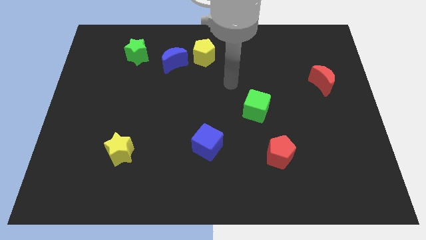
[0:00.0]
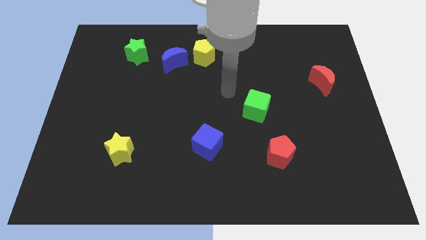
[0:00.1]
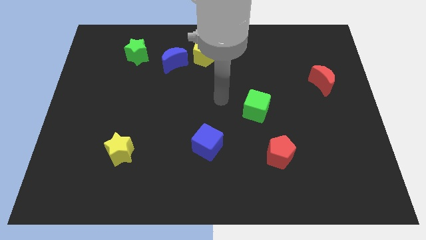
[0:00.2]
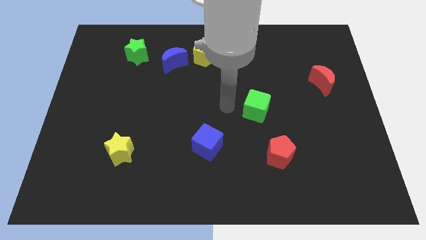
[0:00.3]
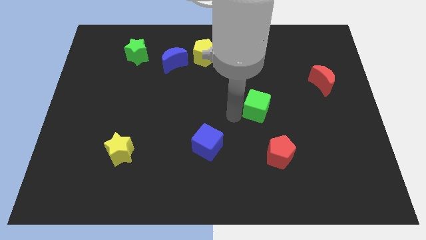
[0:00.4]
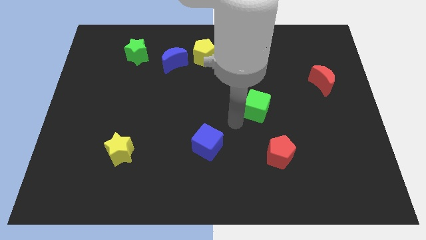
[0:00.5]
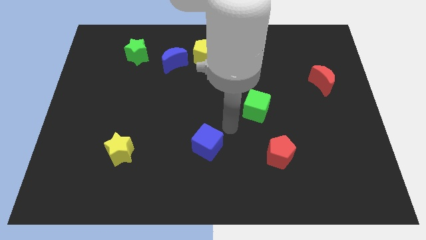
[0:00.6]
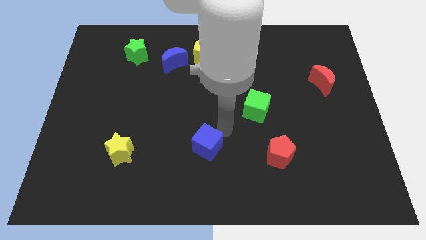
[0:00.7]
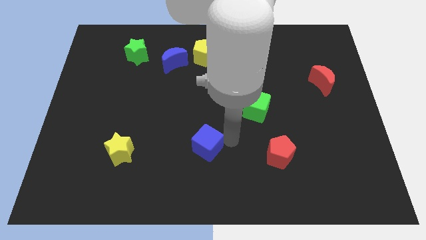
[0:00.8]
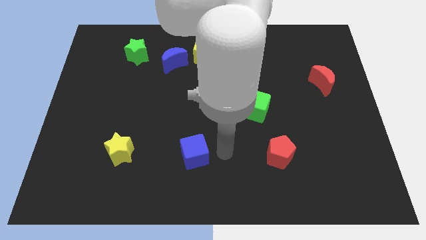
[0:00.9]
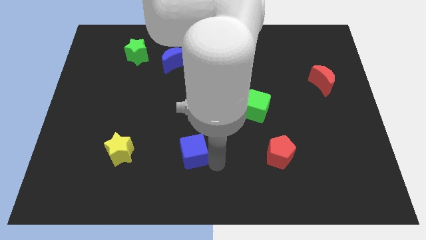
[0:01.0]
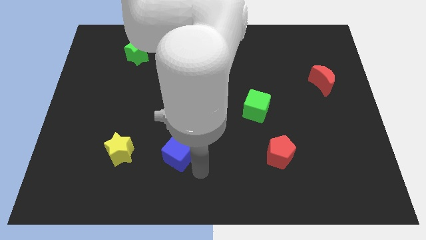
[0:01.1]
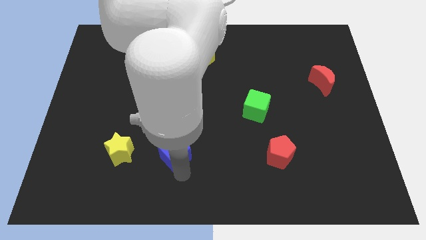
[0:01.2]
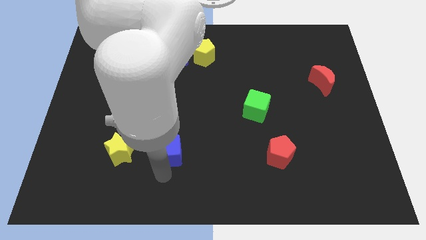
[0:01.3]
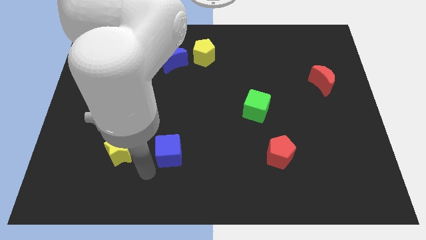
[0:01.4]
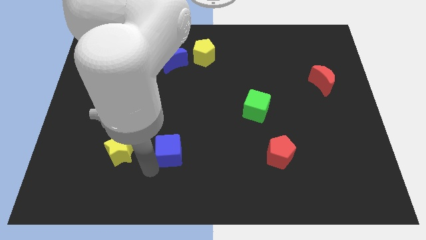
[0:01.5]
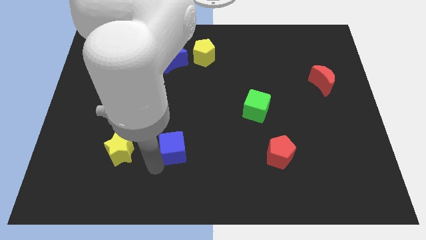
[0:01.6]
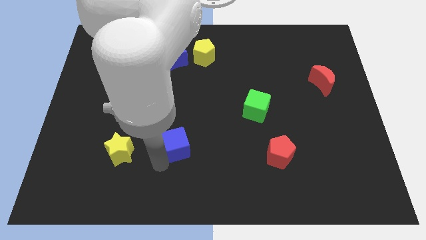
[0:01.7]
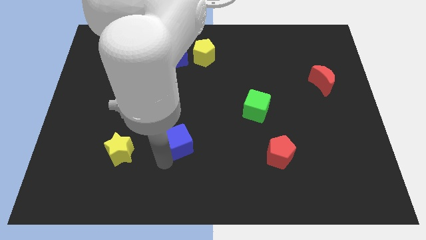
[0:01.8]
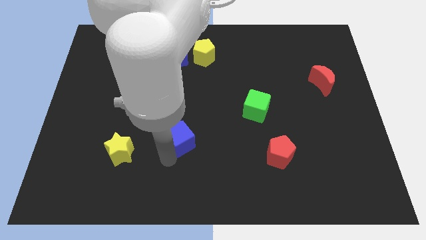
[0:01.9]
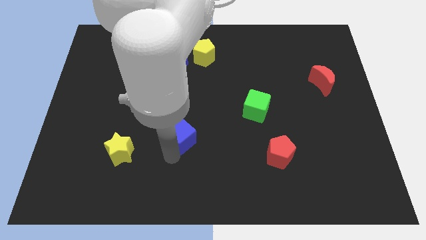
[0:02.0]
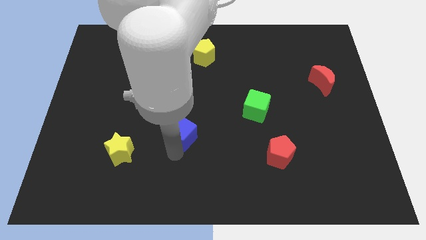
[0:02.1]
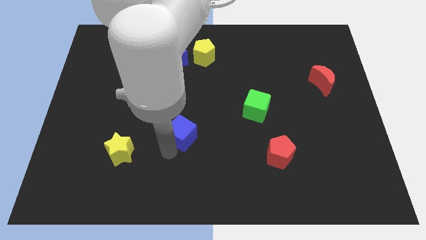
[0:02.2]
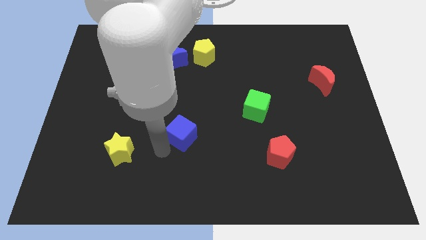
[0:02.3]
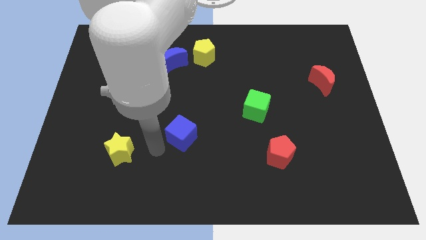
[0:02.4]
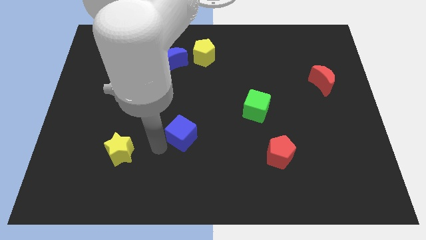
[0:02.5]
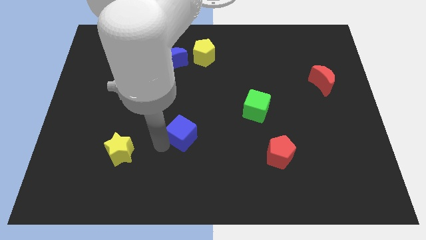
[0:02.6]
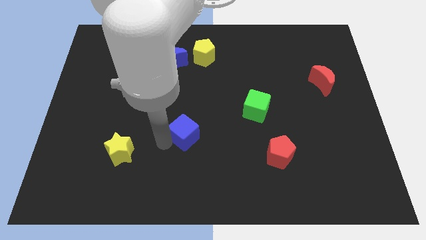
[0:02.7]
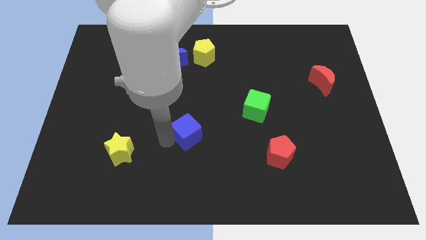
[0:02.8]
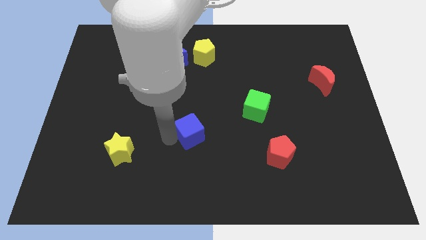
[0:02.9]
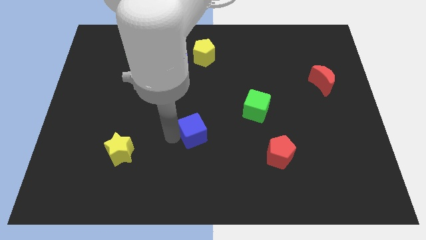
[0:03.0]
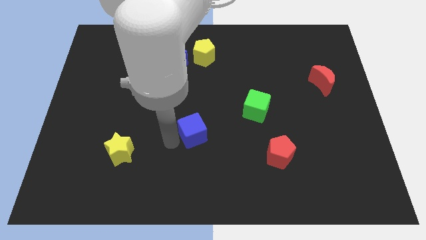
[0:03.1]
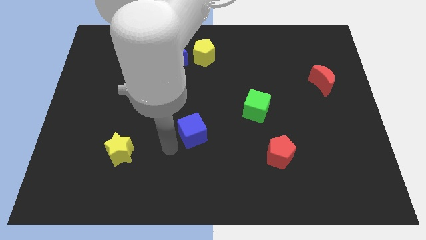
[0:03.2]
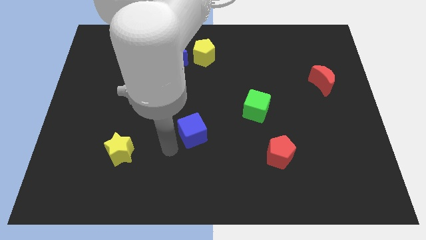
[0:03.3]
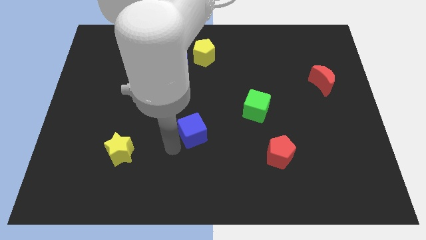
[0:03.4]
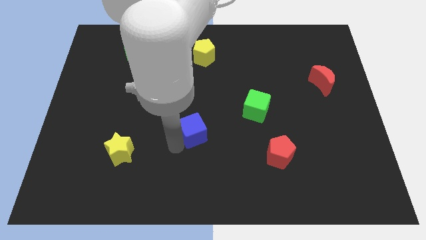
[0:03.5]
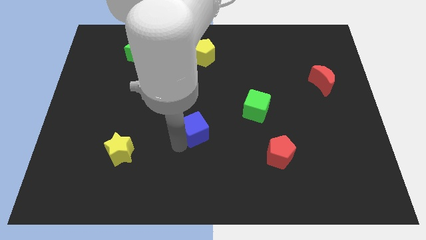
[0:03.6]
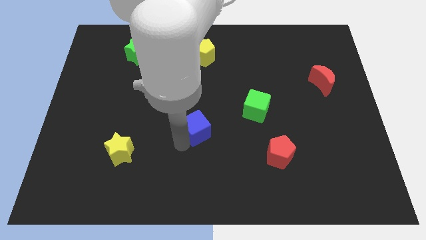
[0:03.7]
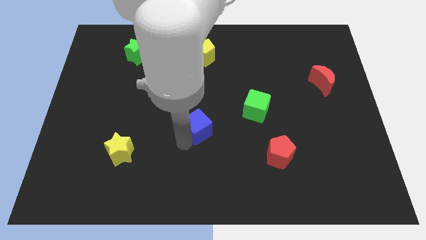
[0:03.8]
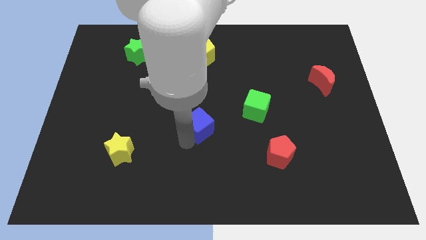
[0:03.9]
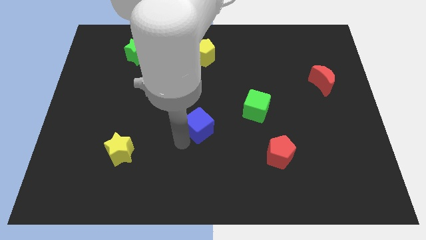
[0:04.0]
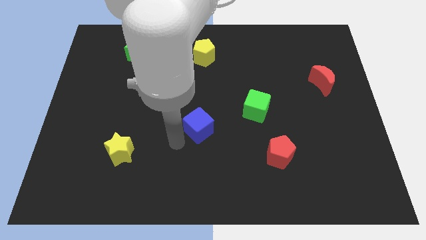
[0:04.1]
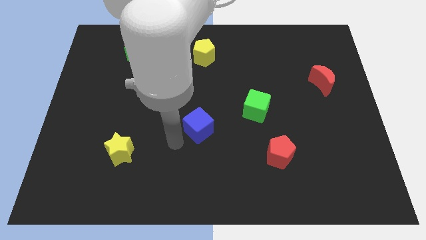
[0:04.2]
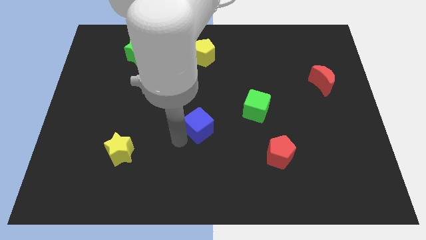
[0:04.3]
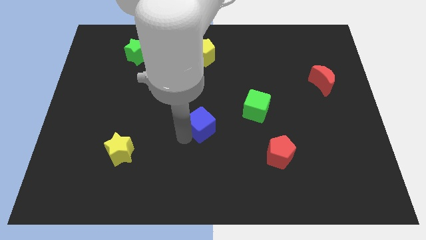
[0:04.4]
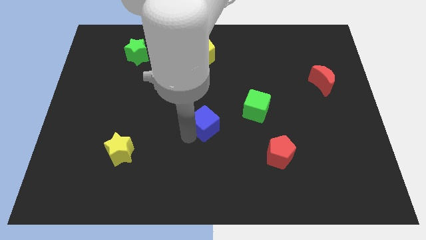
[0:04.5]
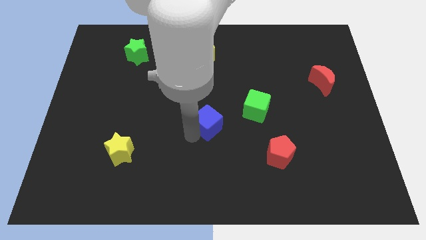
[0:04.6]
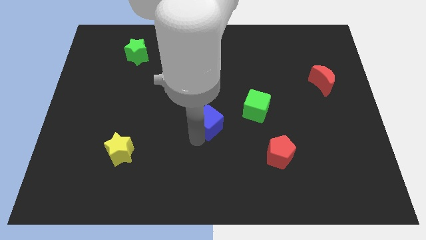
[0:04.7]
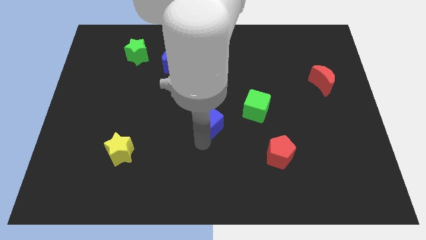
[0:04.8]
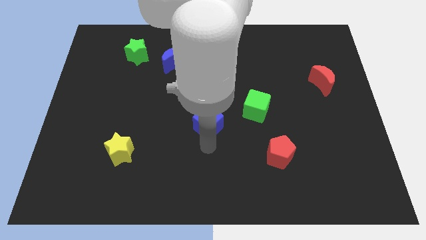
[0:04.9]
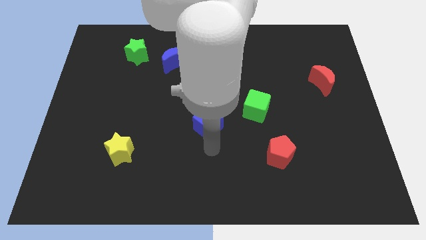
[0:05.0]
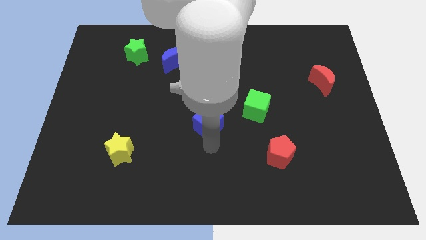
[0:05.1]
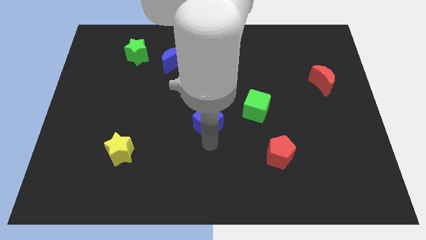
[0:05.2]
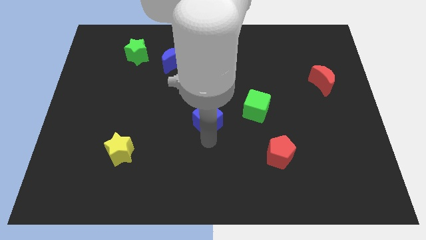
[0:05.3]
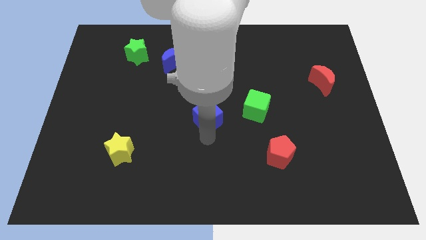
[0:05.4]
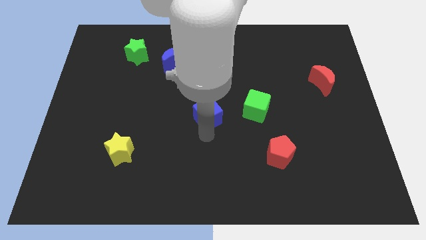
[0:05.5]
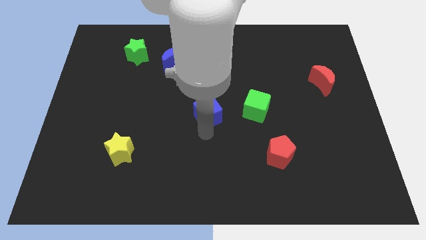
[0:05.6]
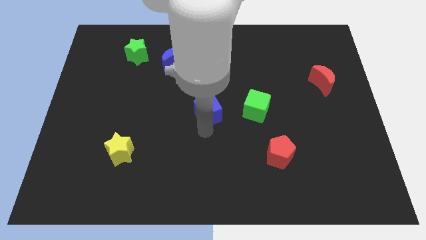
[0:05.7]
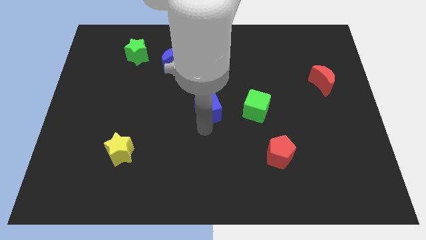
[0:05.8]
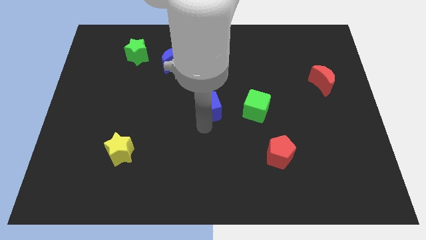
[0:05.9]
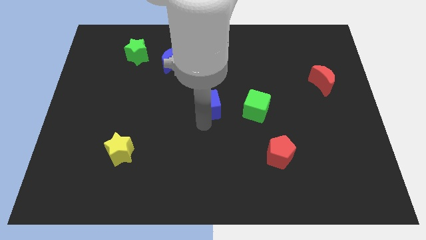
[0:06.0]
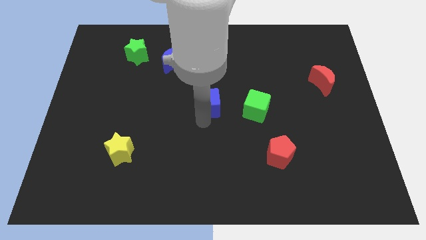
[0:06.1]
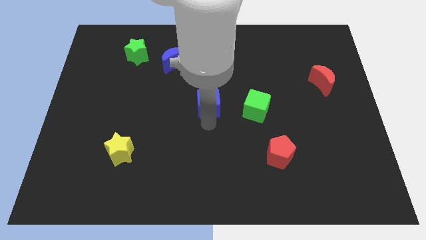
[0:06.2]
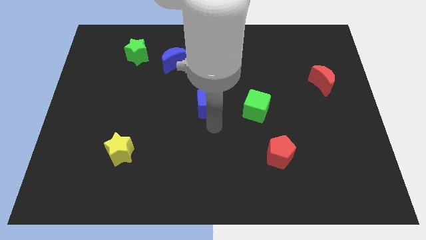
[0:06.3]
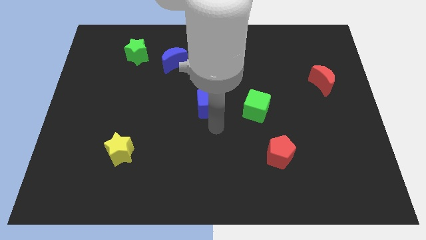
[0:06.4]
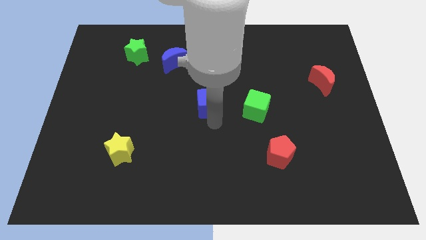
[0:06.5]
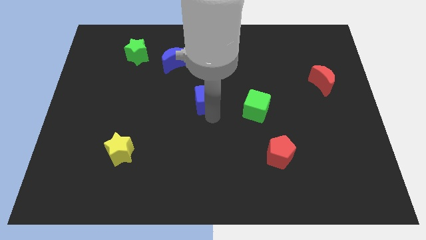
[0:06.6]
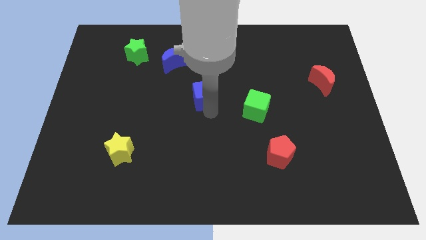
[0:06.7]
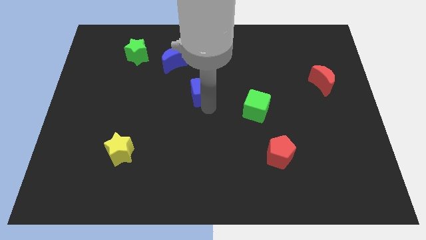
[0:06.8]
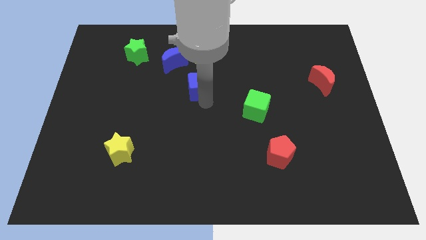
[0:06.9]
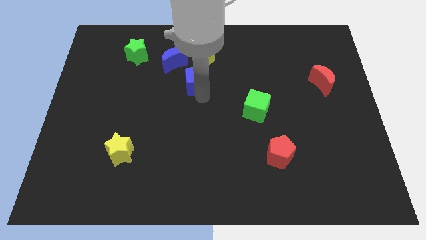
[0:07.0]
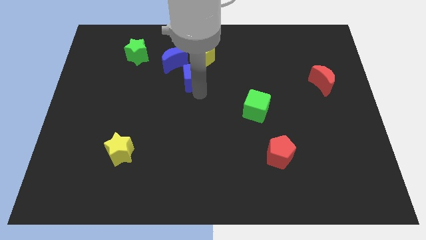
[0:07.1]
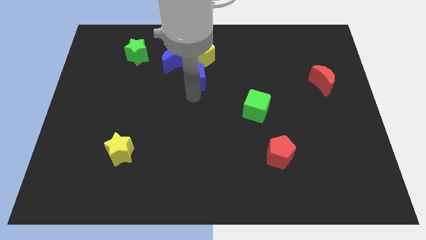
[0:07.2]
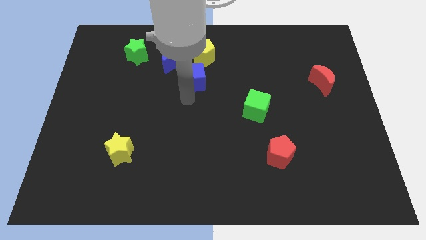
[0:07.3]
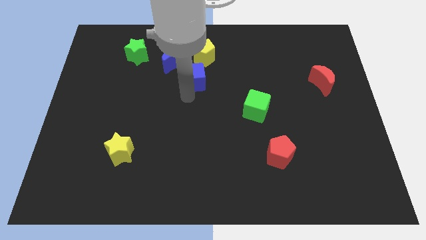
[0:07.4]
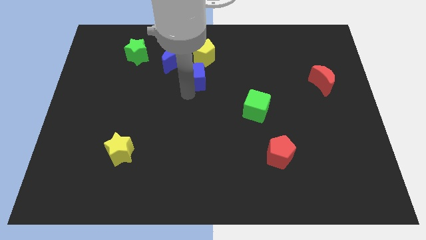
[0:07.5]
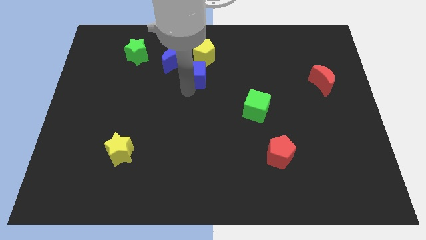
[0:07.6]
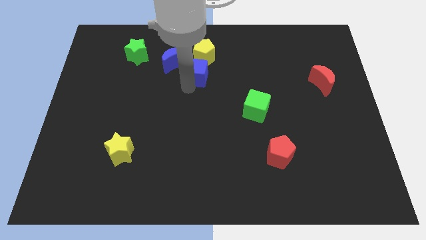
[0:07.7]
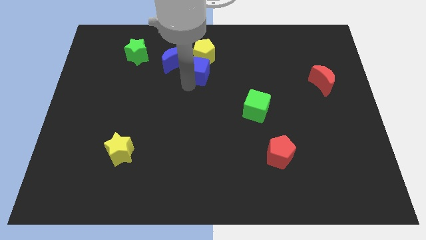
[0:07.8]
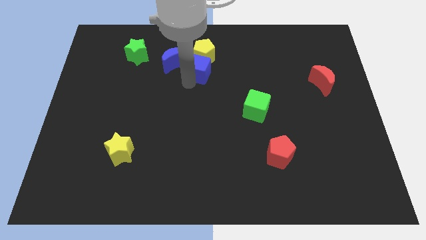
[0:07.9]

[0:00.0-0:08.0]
push the blue cube to the yellow pentagon
